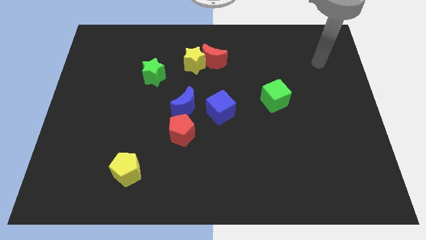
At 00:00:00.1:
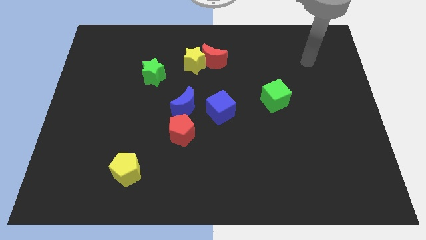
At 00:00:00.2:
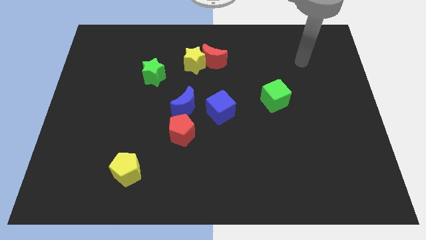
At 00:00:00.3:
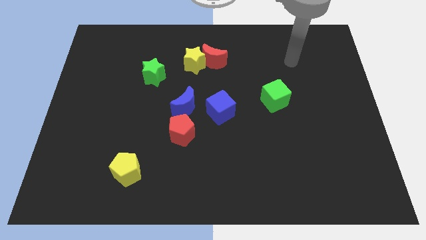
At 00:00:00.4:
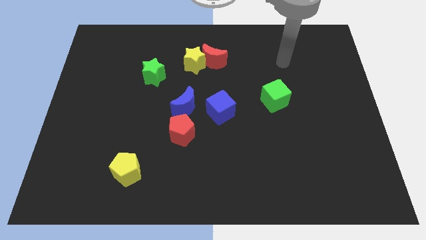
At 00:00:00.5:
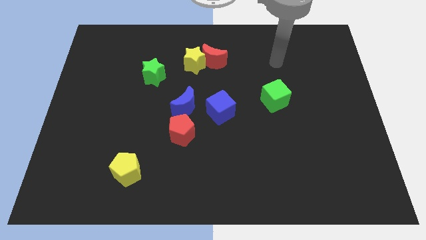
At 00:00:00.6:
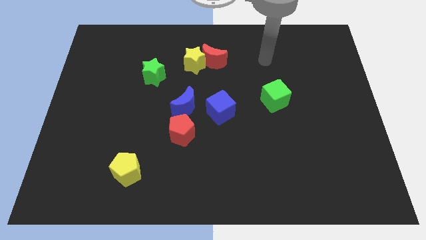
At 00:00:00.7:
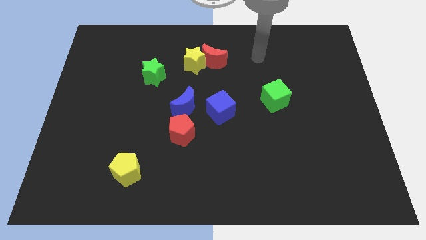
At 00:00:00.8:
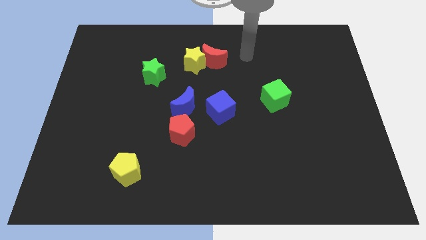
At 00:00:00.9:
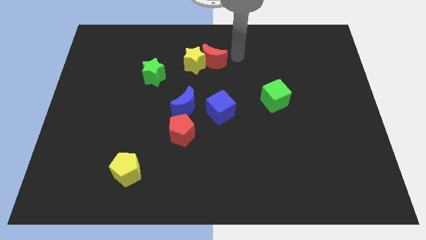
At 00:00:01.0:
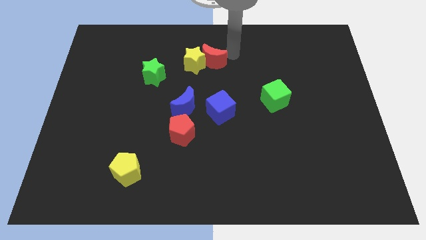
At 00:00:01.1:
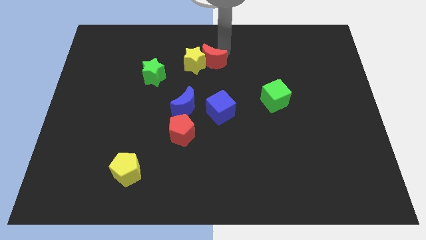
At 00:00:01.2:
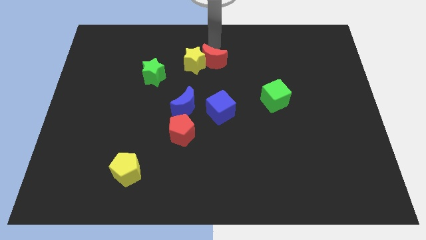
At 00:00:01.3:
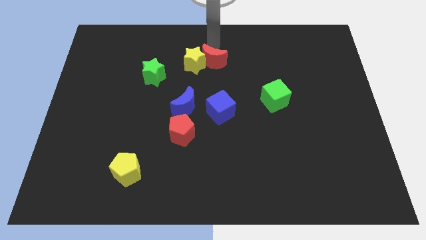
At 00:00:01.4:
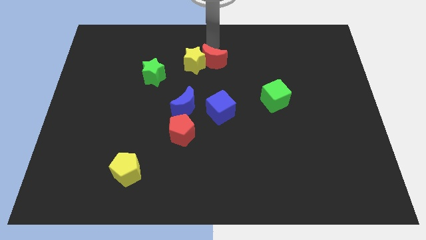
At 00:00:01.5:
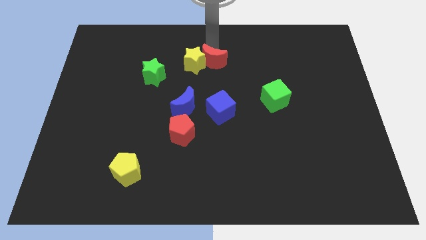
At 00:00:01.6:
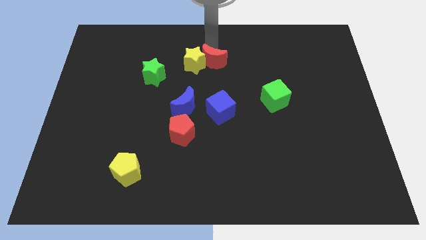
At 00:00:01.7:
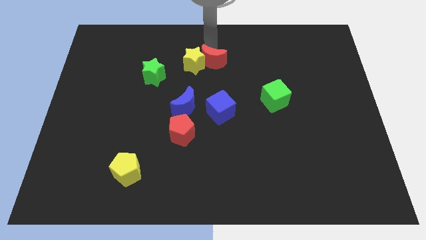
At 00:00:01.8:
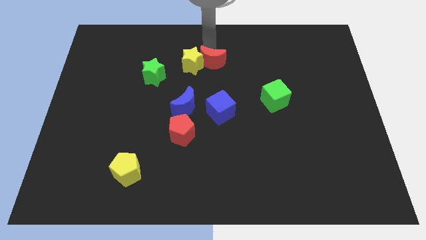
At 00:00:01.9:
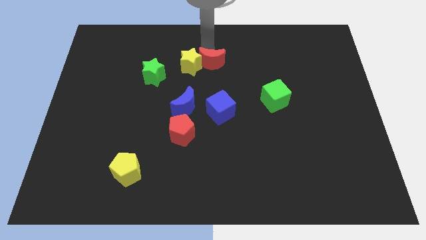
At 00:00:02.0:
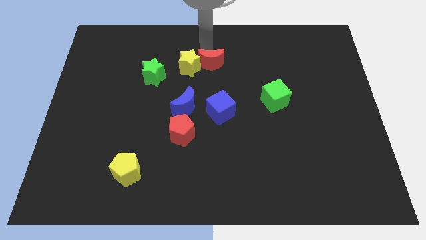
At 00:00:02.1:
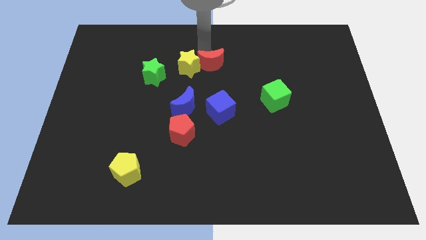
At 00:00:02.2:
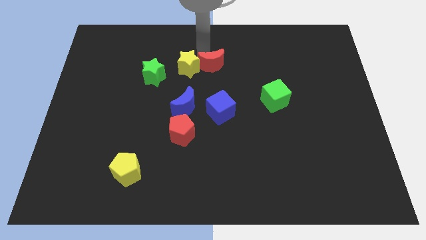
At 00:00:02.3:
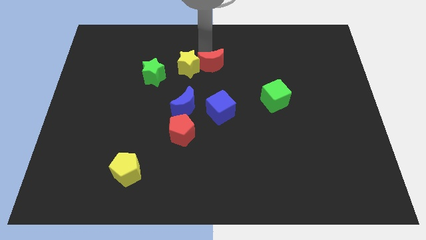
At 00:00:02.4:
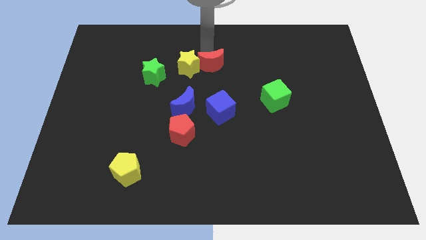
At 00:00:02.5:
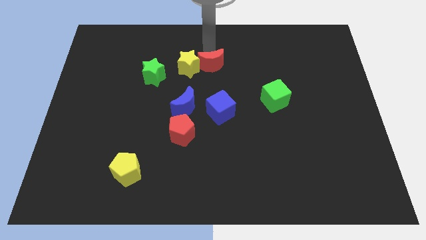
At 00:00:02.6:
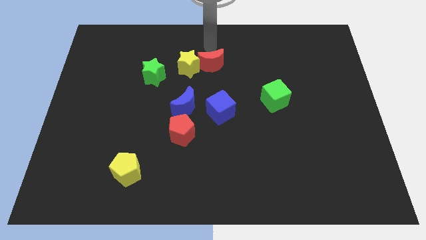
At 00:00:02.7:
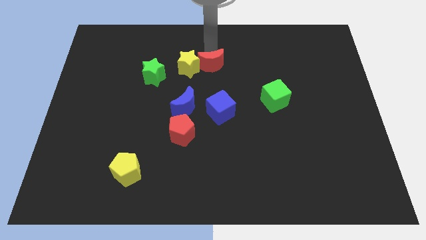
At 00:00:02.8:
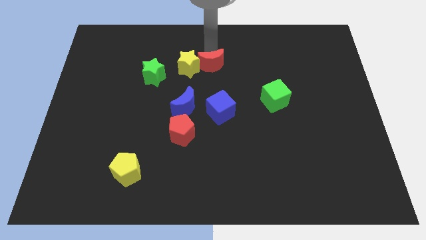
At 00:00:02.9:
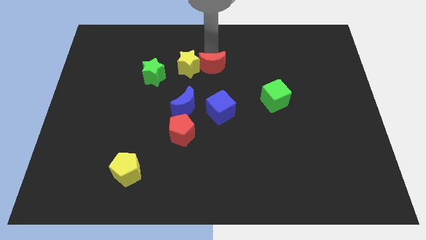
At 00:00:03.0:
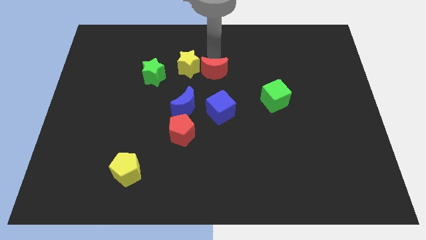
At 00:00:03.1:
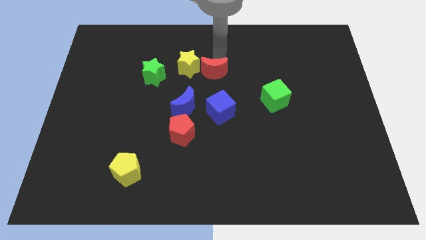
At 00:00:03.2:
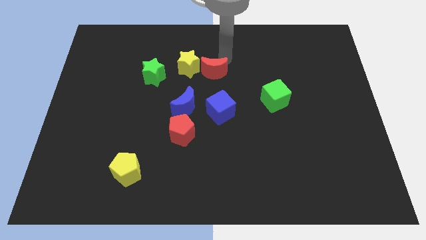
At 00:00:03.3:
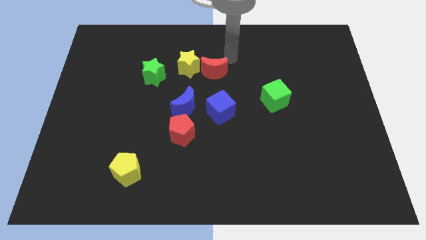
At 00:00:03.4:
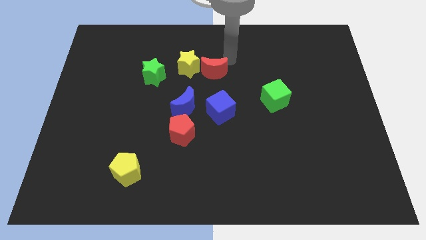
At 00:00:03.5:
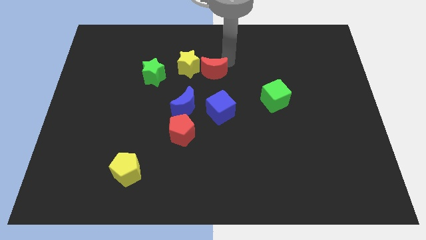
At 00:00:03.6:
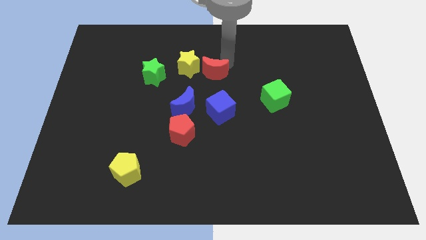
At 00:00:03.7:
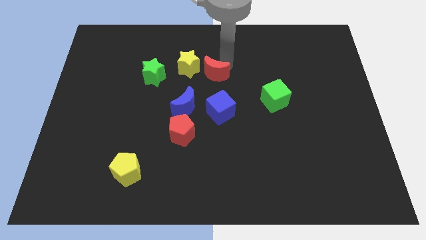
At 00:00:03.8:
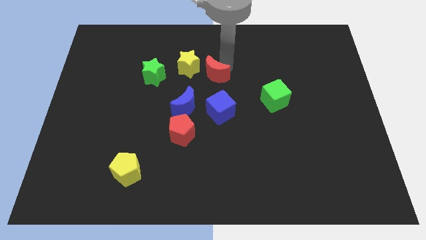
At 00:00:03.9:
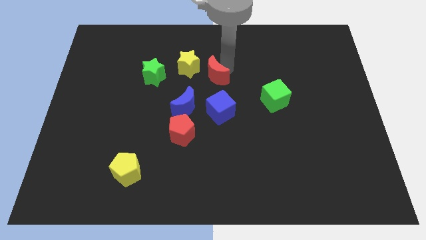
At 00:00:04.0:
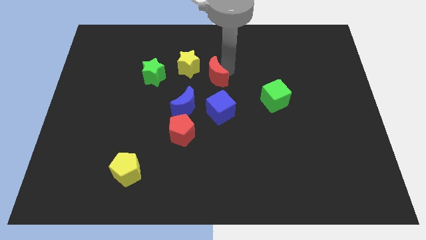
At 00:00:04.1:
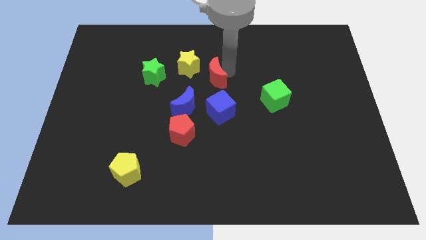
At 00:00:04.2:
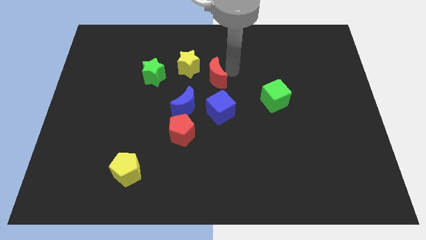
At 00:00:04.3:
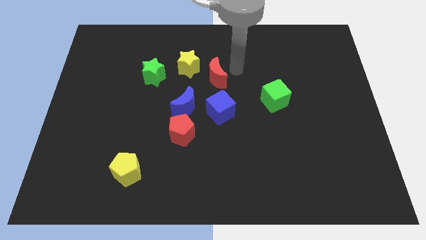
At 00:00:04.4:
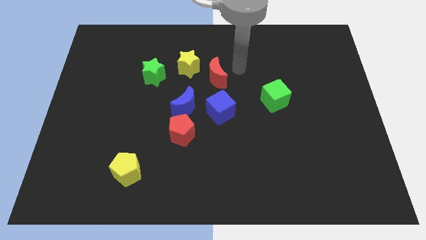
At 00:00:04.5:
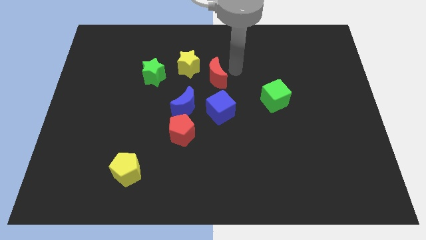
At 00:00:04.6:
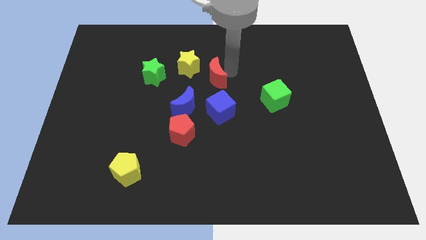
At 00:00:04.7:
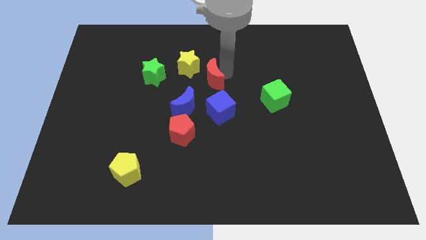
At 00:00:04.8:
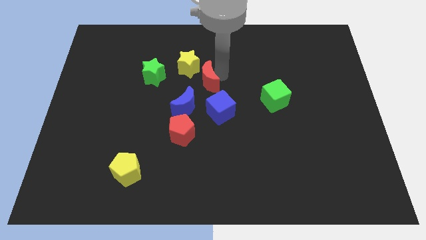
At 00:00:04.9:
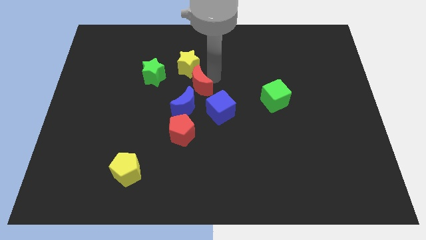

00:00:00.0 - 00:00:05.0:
put the red moon to the top of the red pentagon

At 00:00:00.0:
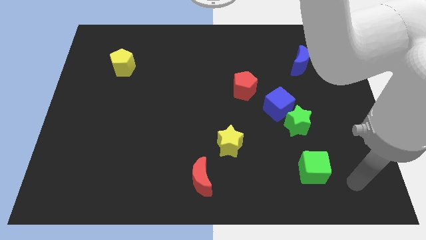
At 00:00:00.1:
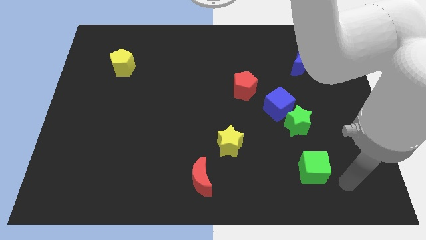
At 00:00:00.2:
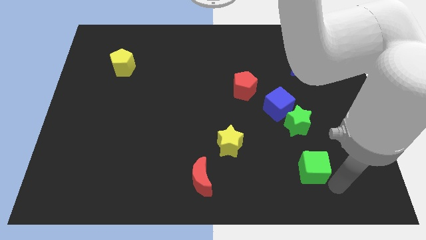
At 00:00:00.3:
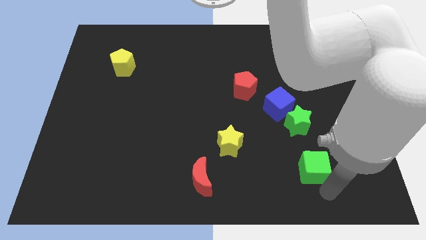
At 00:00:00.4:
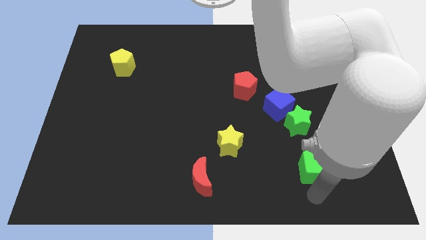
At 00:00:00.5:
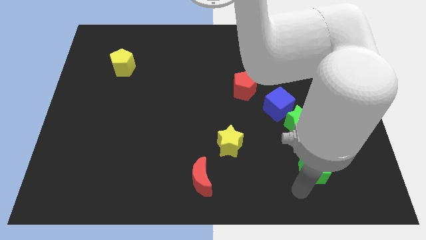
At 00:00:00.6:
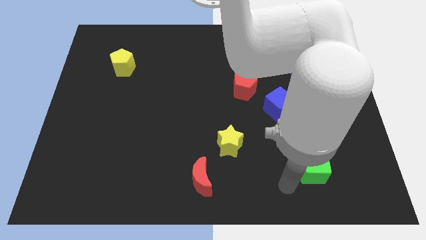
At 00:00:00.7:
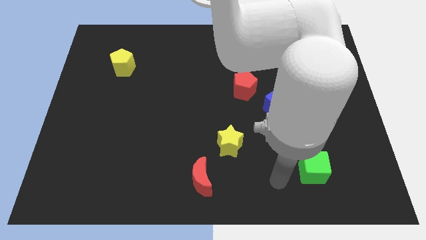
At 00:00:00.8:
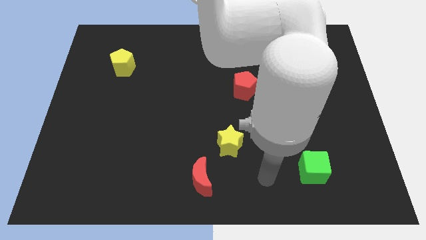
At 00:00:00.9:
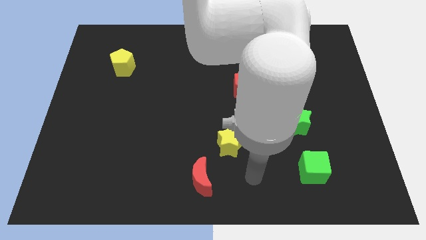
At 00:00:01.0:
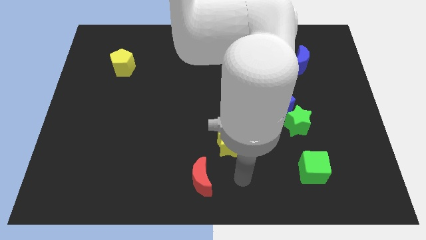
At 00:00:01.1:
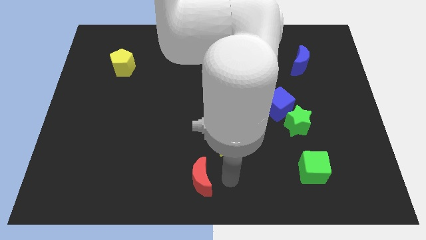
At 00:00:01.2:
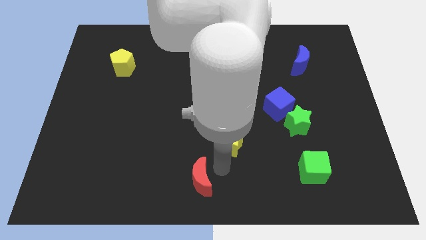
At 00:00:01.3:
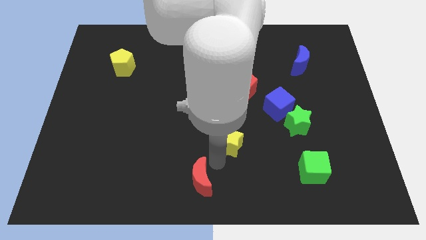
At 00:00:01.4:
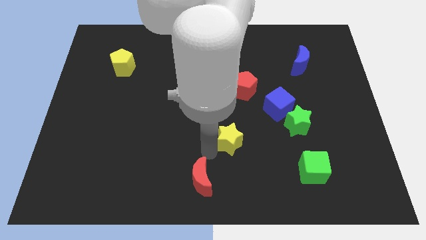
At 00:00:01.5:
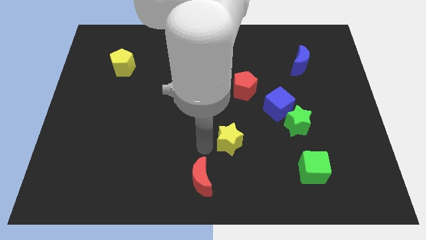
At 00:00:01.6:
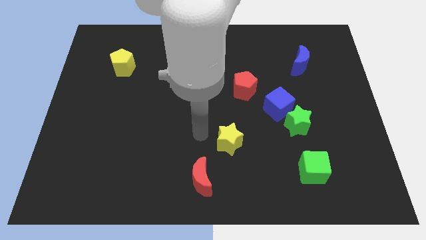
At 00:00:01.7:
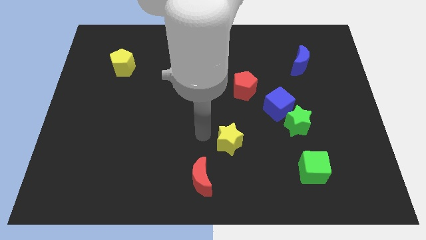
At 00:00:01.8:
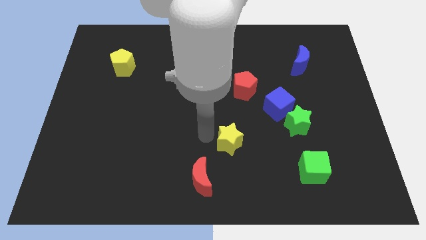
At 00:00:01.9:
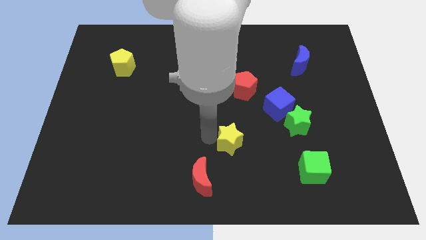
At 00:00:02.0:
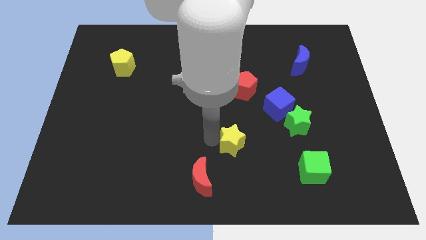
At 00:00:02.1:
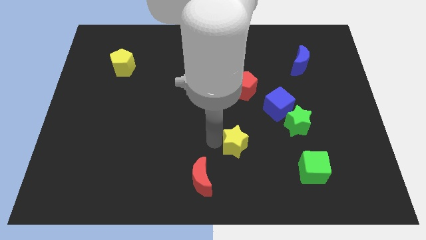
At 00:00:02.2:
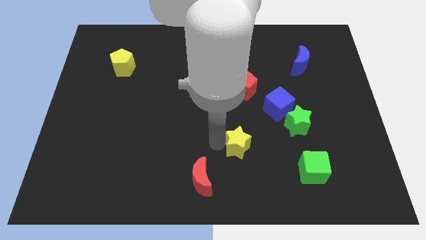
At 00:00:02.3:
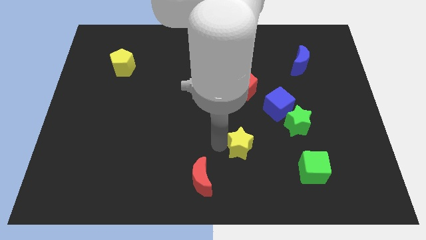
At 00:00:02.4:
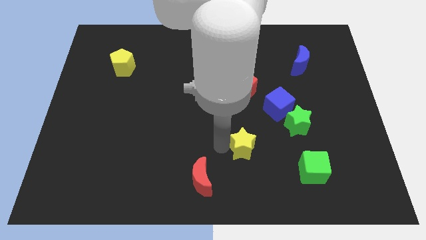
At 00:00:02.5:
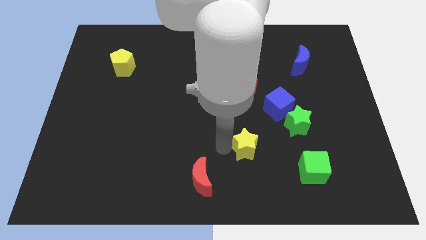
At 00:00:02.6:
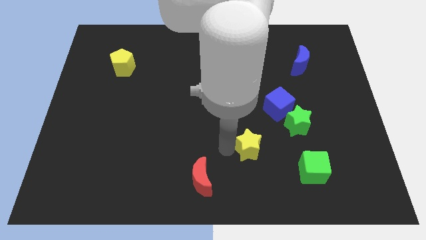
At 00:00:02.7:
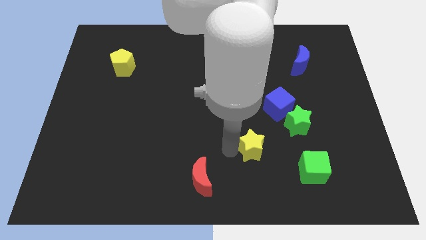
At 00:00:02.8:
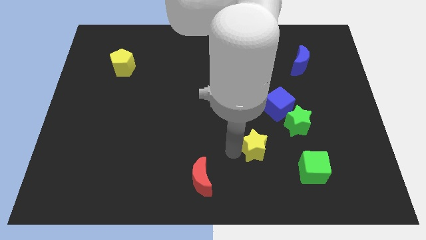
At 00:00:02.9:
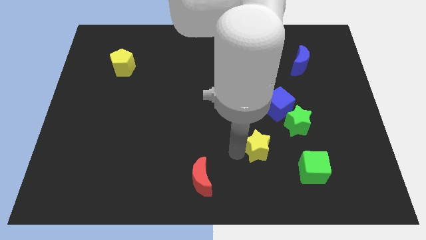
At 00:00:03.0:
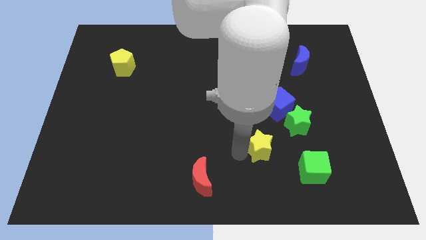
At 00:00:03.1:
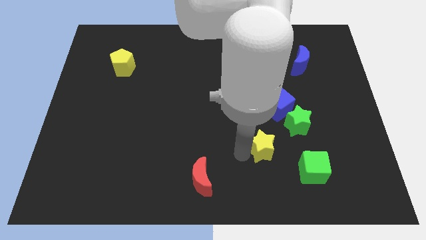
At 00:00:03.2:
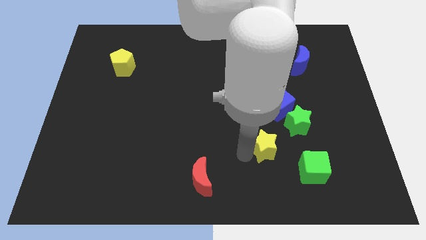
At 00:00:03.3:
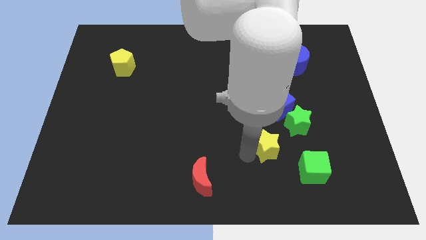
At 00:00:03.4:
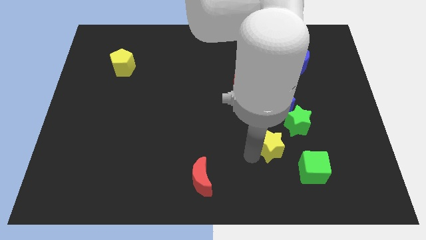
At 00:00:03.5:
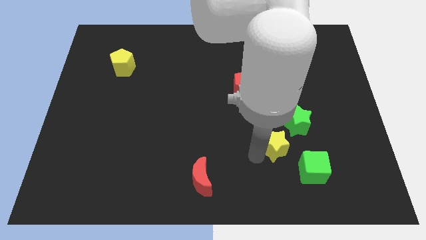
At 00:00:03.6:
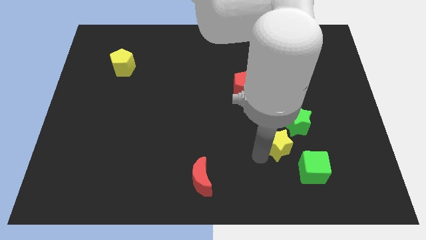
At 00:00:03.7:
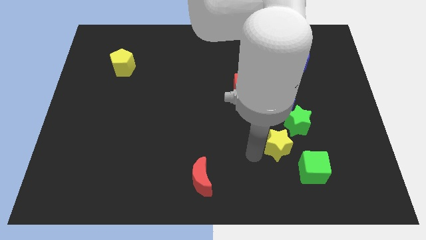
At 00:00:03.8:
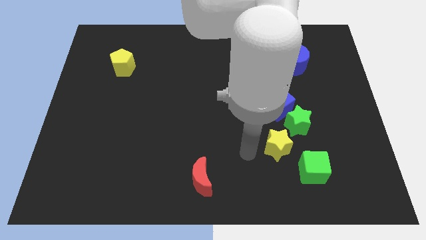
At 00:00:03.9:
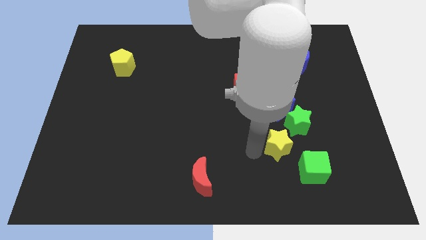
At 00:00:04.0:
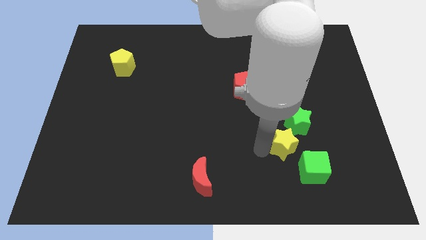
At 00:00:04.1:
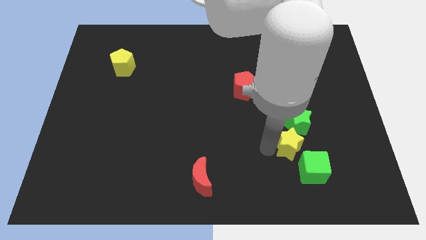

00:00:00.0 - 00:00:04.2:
move the yellow star to the top of the green cube
